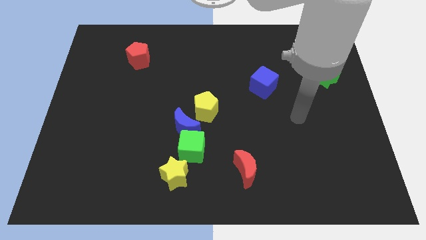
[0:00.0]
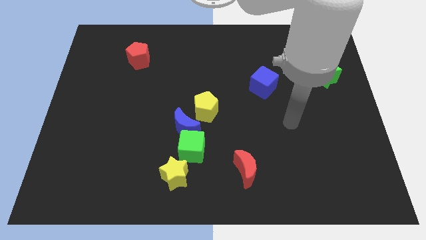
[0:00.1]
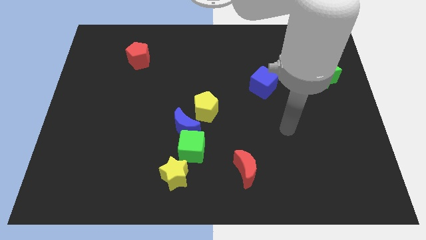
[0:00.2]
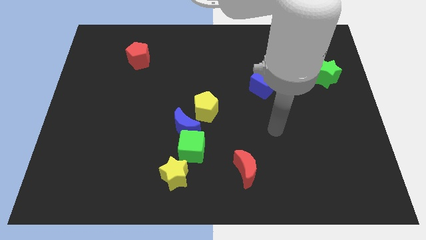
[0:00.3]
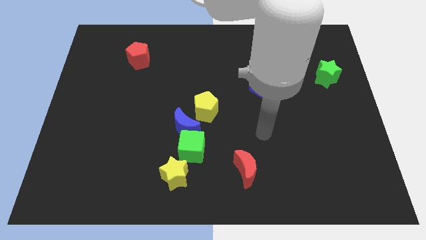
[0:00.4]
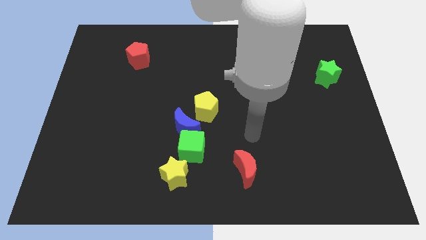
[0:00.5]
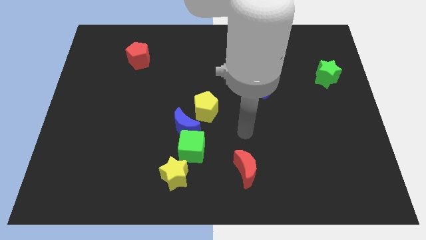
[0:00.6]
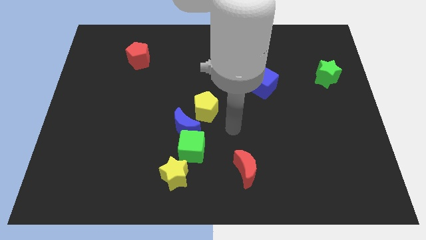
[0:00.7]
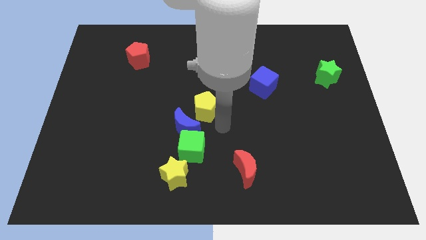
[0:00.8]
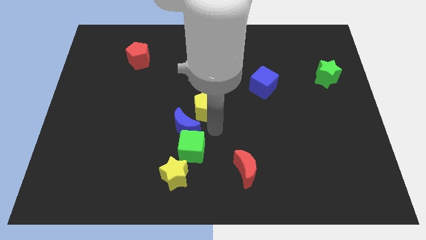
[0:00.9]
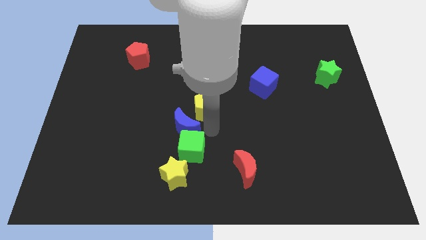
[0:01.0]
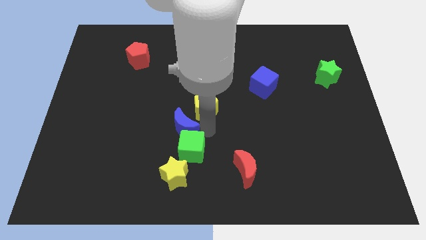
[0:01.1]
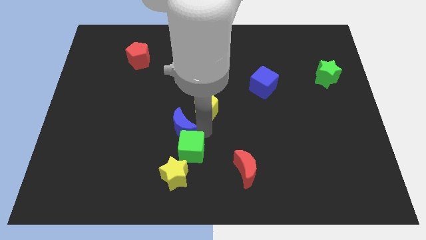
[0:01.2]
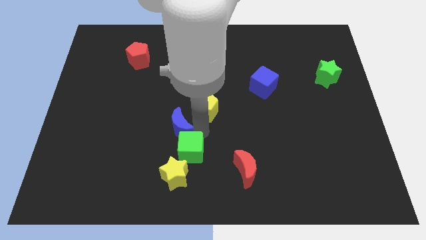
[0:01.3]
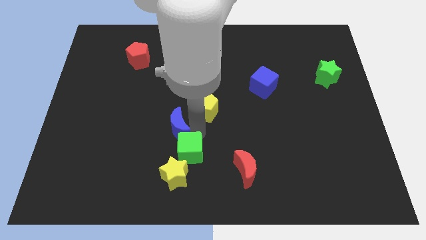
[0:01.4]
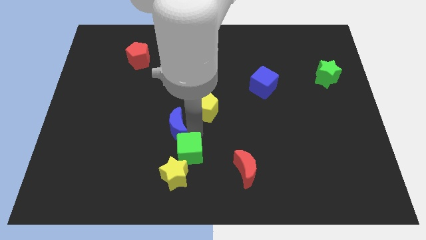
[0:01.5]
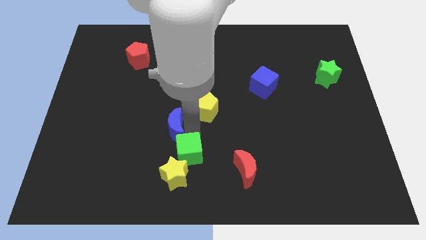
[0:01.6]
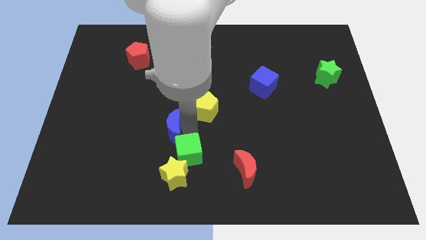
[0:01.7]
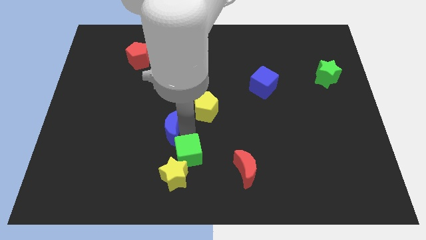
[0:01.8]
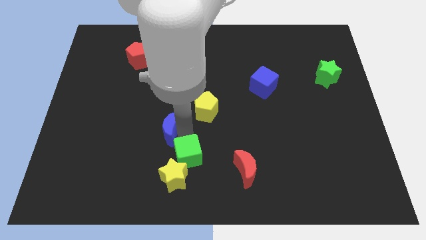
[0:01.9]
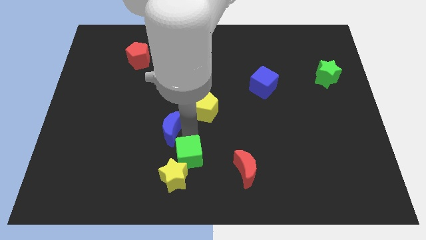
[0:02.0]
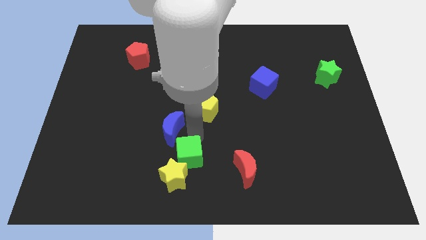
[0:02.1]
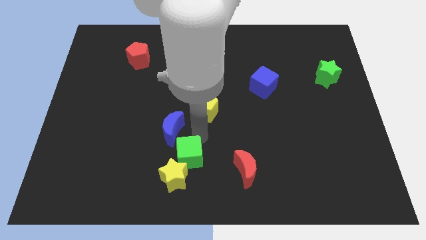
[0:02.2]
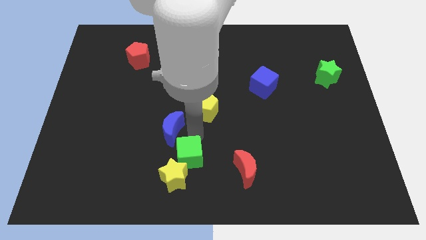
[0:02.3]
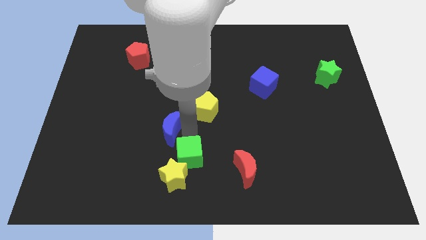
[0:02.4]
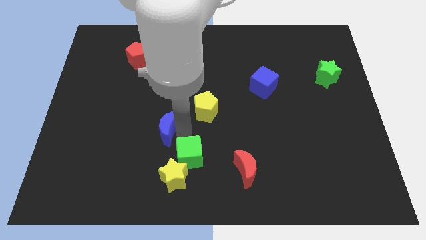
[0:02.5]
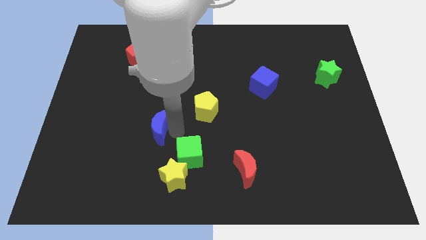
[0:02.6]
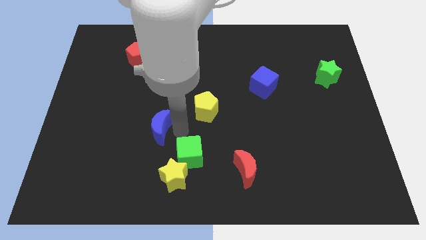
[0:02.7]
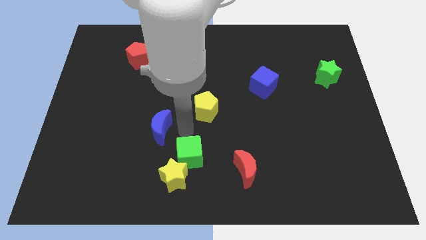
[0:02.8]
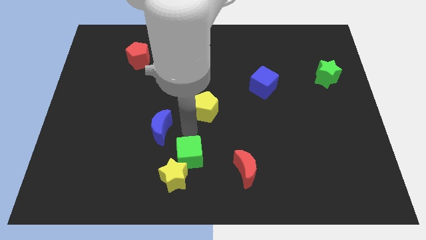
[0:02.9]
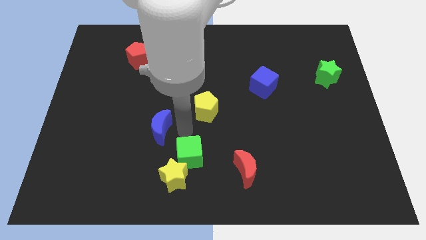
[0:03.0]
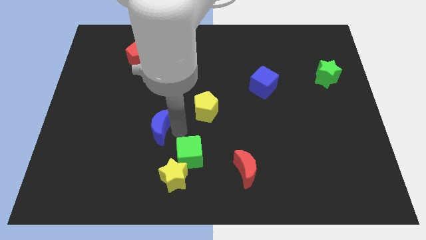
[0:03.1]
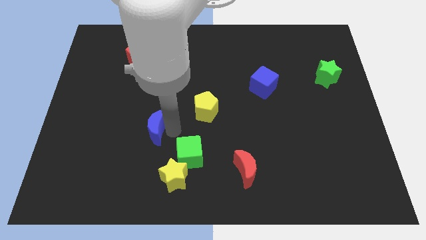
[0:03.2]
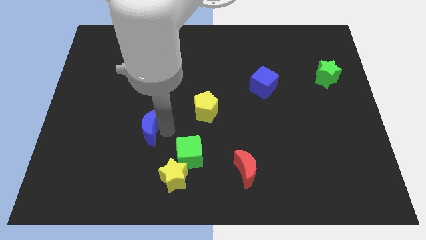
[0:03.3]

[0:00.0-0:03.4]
move the blue moon away from the green cube and yellow pentagon

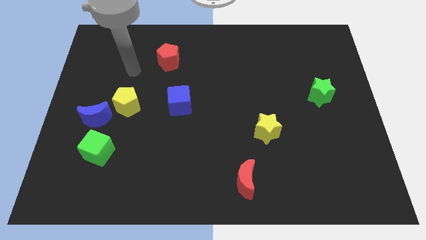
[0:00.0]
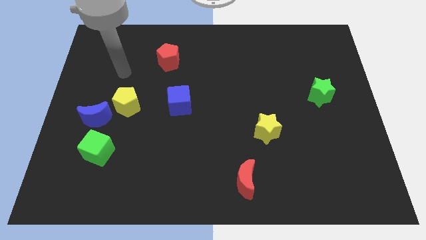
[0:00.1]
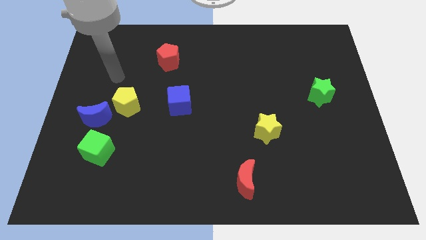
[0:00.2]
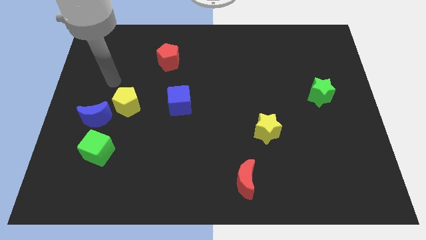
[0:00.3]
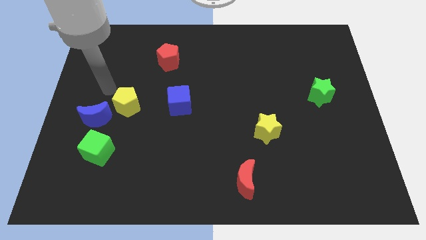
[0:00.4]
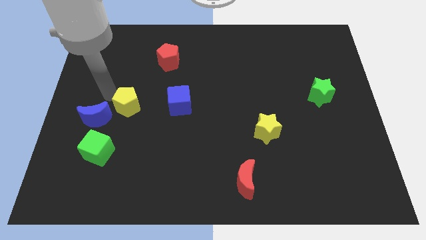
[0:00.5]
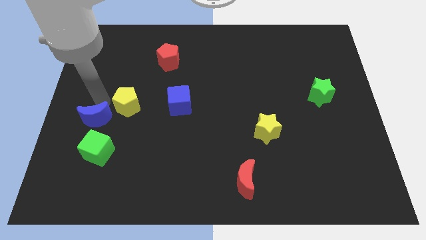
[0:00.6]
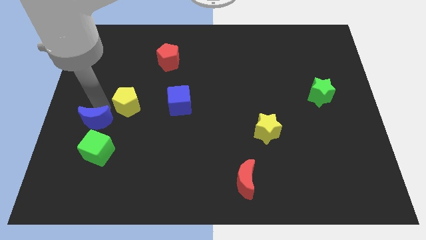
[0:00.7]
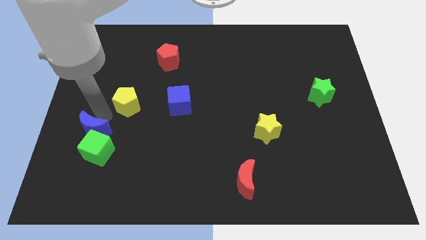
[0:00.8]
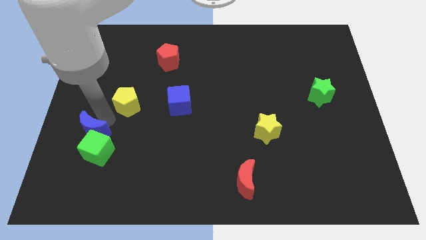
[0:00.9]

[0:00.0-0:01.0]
move the yellow pentagon away from the blue moon

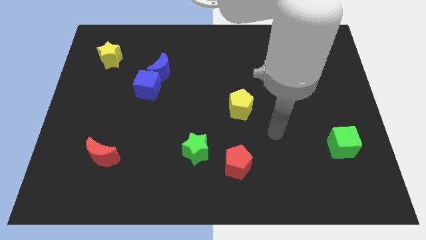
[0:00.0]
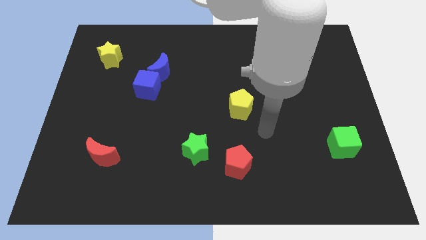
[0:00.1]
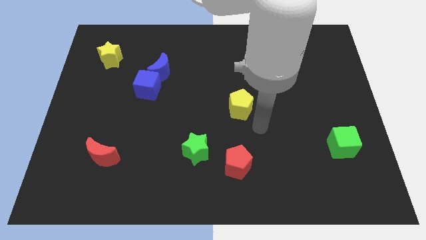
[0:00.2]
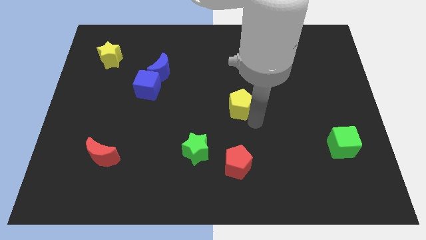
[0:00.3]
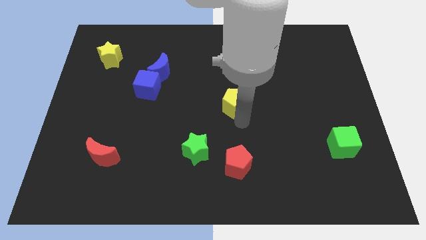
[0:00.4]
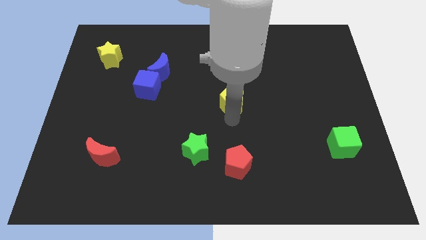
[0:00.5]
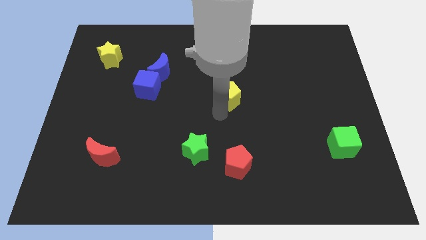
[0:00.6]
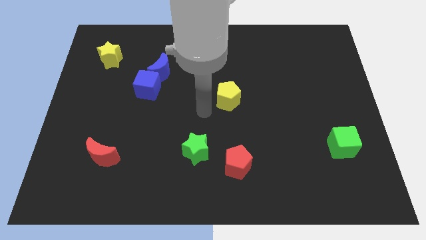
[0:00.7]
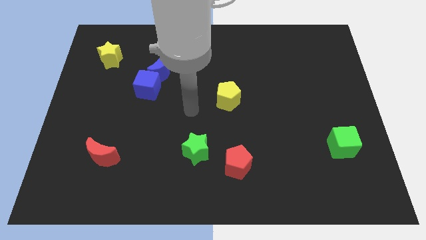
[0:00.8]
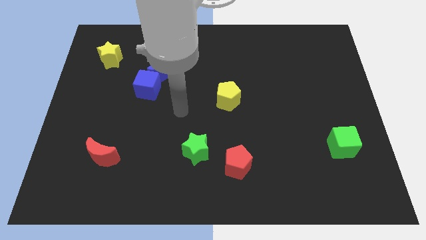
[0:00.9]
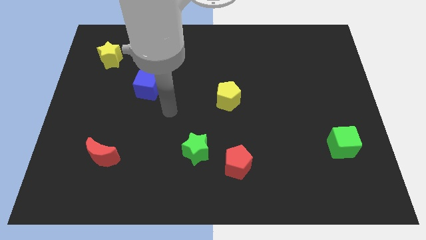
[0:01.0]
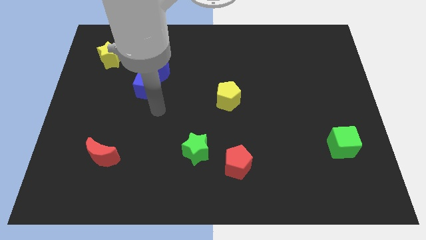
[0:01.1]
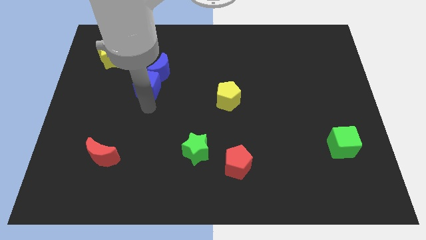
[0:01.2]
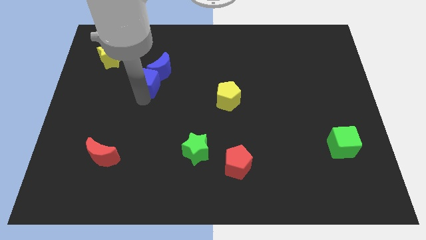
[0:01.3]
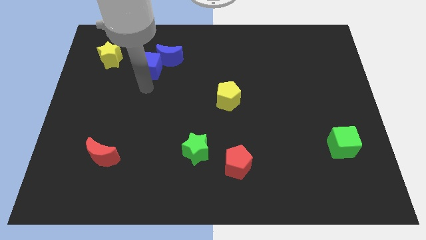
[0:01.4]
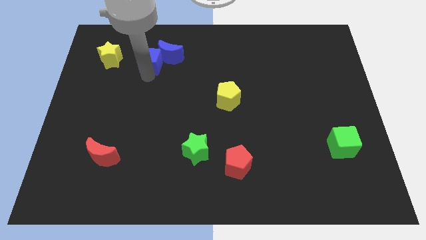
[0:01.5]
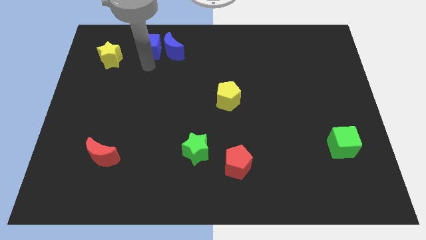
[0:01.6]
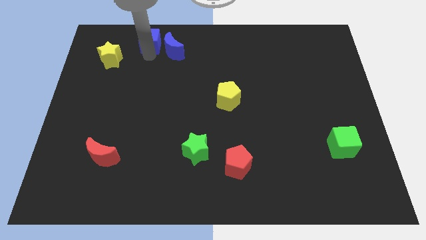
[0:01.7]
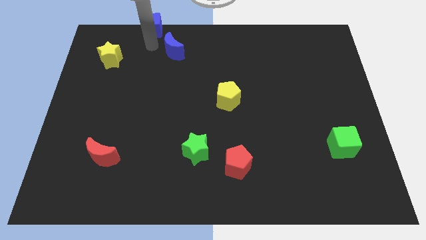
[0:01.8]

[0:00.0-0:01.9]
separate the blue moon from the blue cube

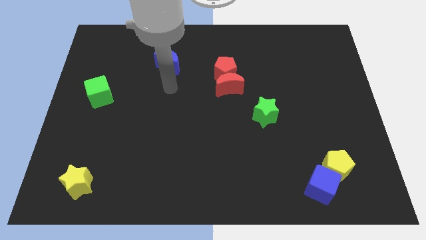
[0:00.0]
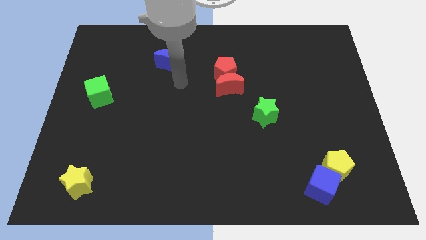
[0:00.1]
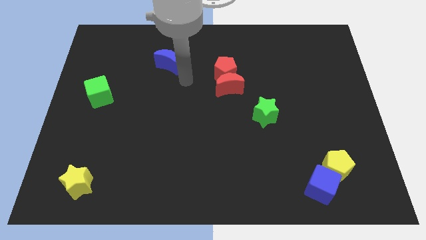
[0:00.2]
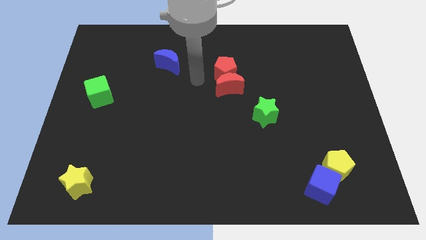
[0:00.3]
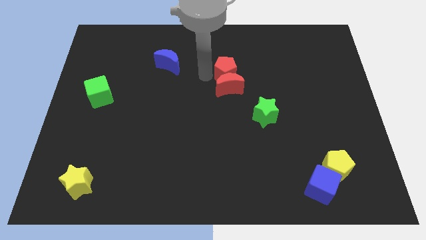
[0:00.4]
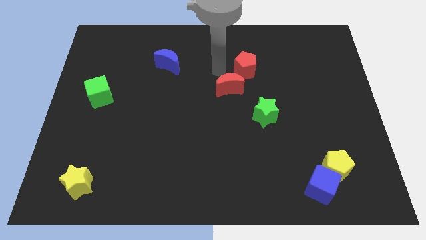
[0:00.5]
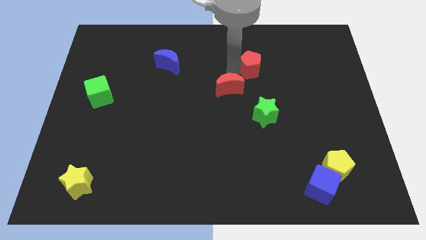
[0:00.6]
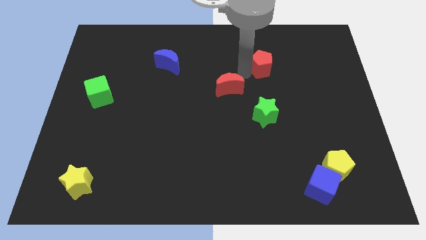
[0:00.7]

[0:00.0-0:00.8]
move the red moon away from the red pentagon

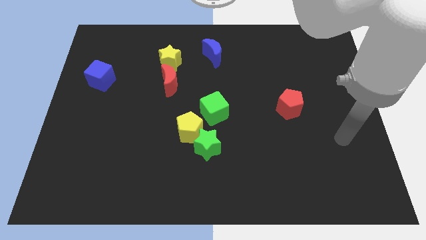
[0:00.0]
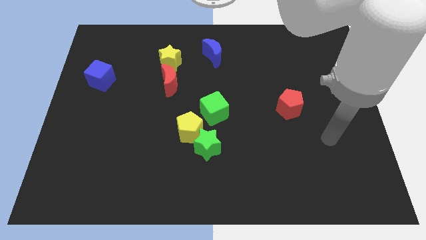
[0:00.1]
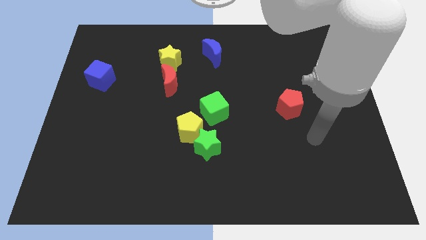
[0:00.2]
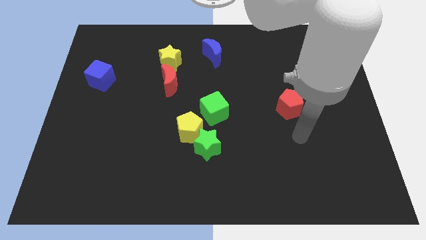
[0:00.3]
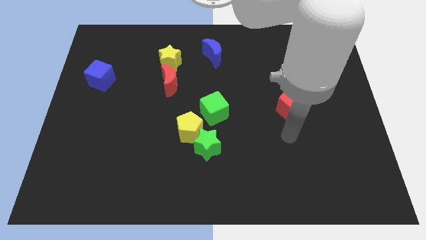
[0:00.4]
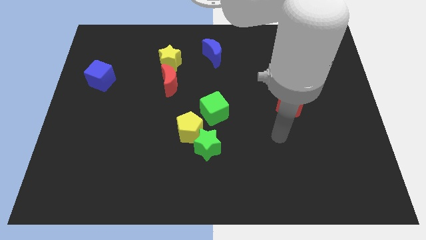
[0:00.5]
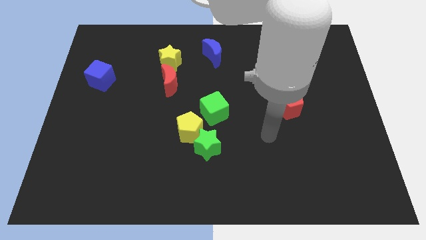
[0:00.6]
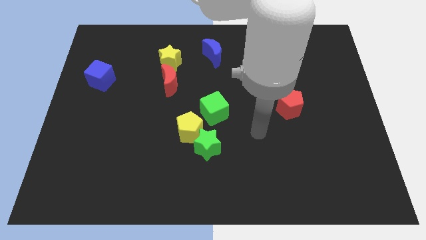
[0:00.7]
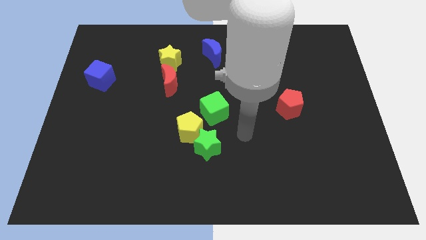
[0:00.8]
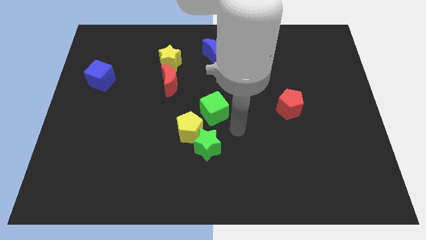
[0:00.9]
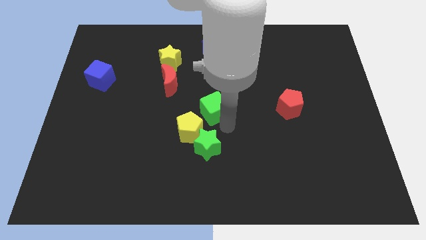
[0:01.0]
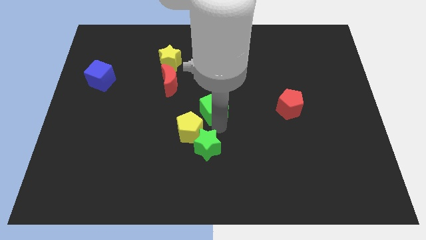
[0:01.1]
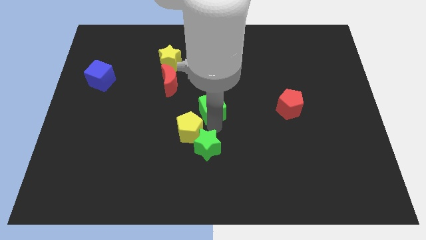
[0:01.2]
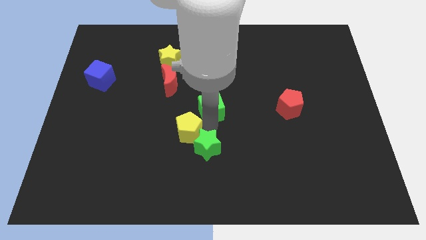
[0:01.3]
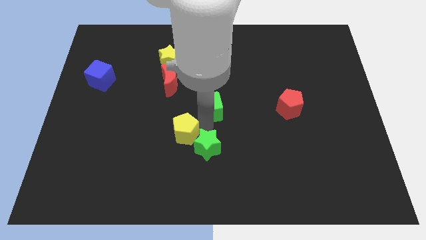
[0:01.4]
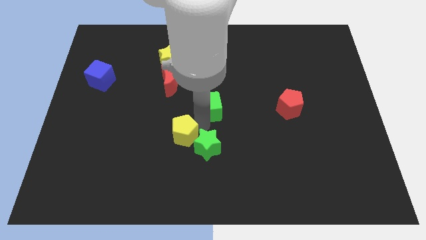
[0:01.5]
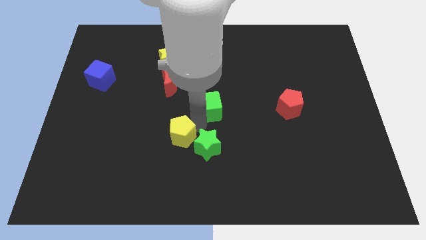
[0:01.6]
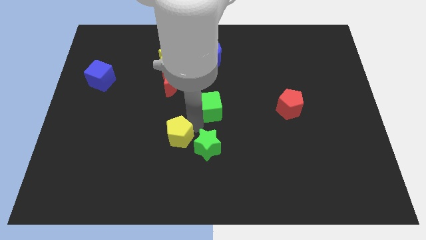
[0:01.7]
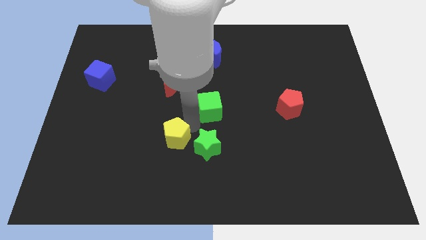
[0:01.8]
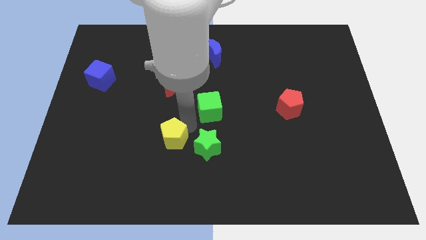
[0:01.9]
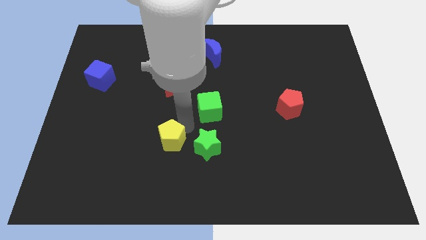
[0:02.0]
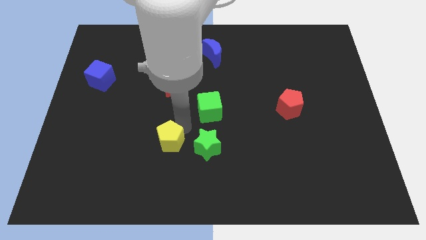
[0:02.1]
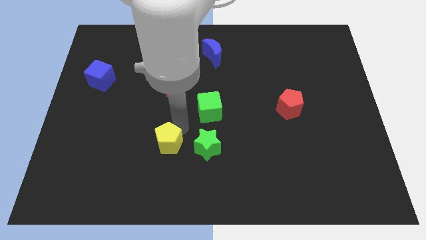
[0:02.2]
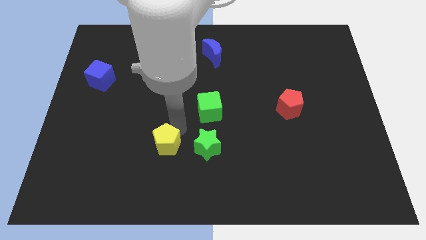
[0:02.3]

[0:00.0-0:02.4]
separate the yellow pentagon from the green star and green cube
